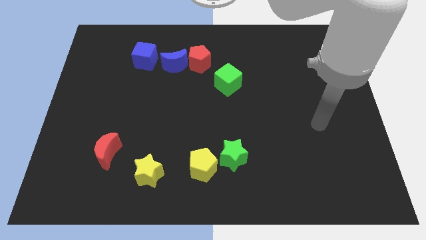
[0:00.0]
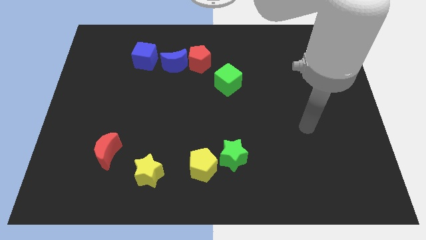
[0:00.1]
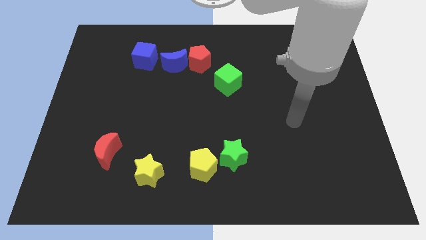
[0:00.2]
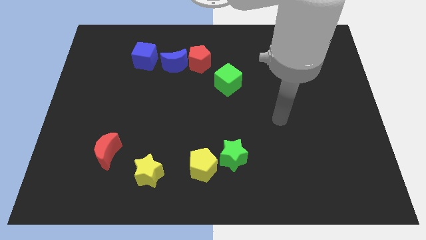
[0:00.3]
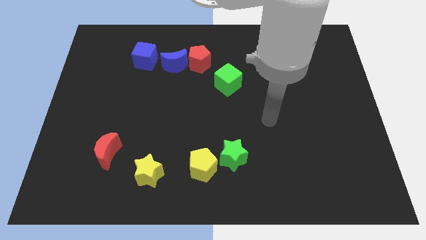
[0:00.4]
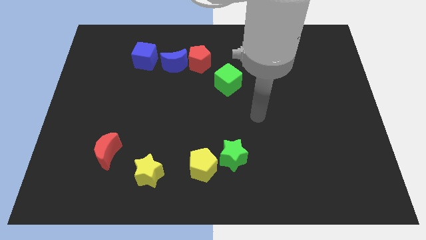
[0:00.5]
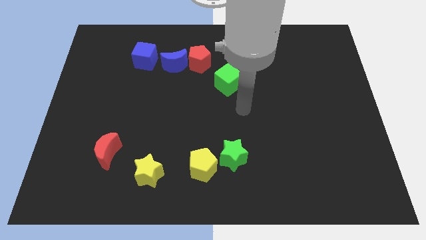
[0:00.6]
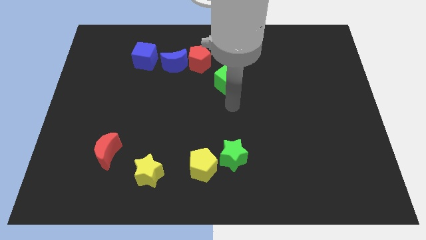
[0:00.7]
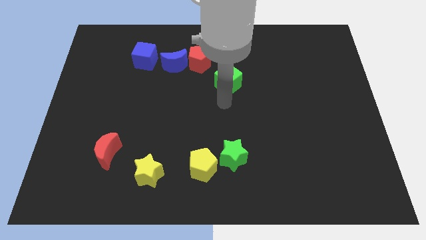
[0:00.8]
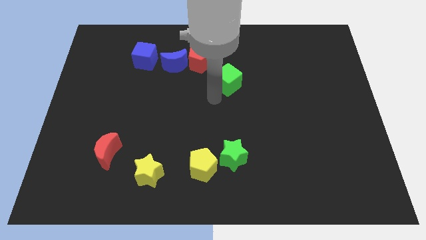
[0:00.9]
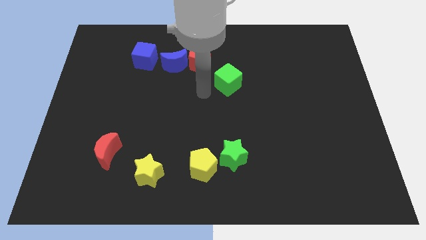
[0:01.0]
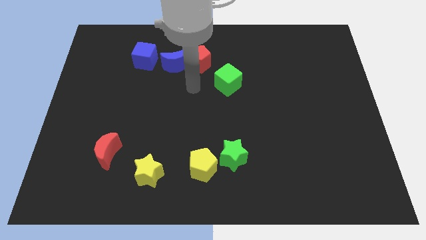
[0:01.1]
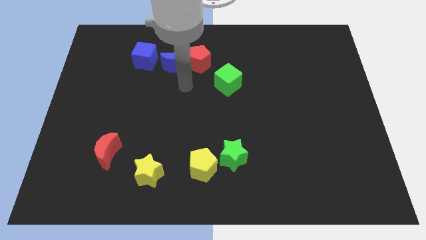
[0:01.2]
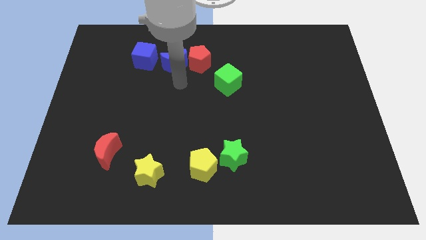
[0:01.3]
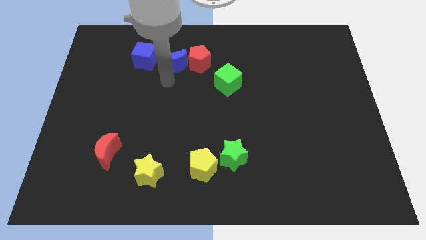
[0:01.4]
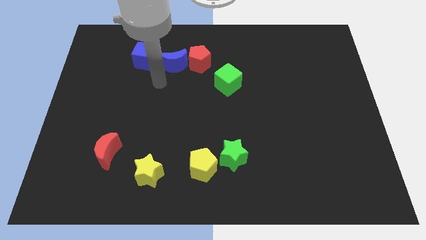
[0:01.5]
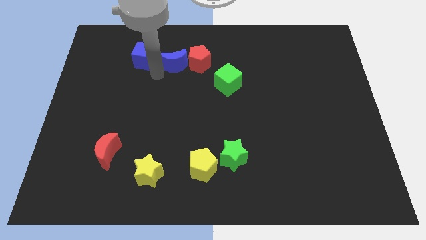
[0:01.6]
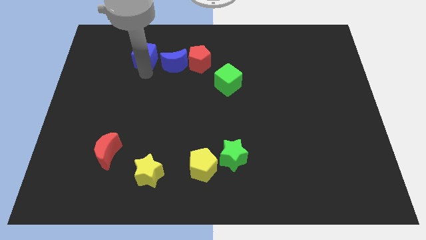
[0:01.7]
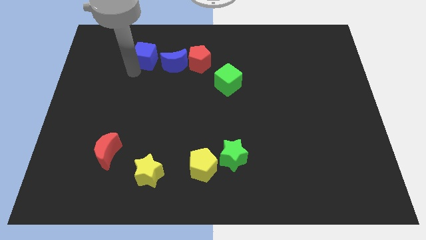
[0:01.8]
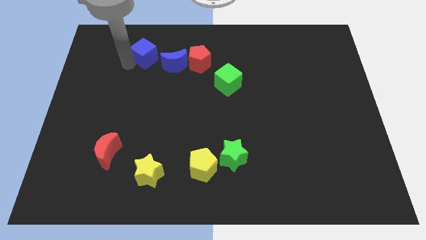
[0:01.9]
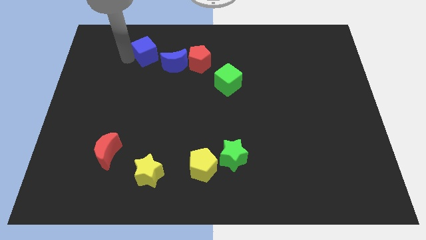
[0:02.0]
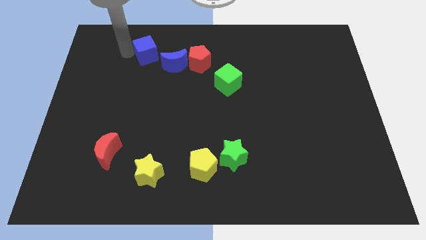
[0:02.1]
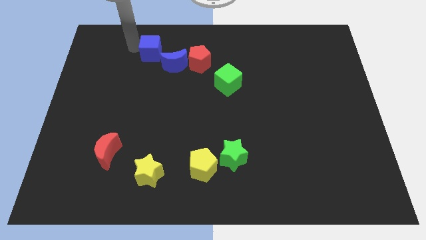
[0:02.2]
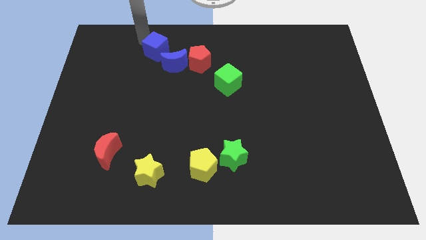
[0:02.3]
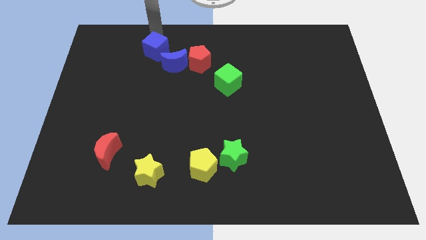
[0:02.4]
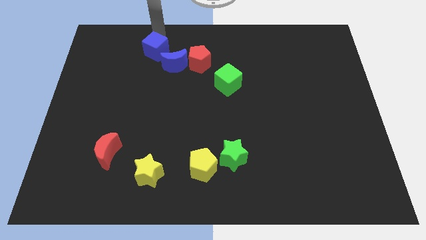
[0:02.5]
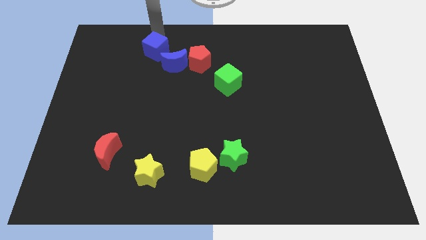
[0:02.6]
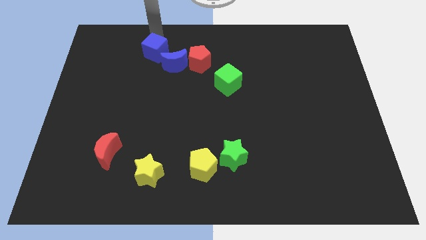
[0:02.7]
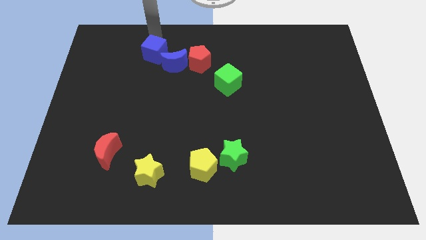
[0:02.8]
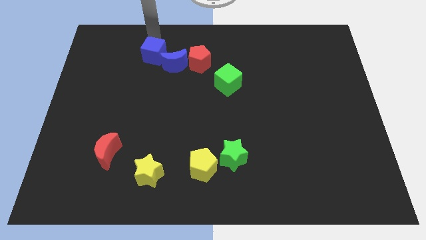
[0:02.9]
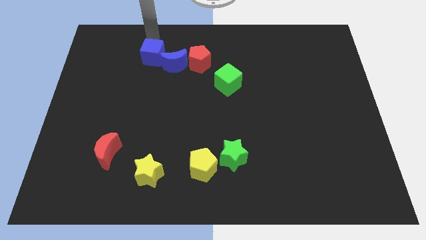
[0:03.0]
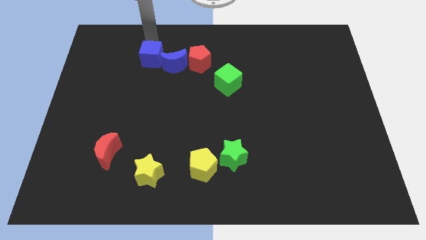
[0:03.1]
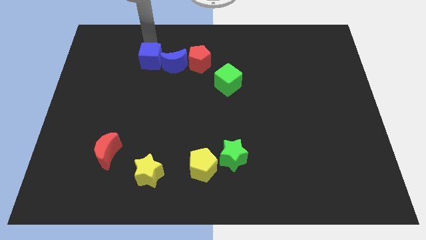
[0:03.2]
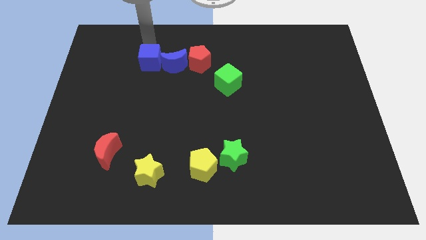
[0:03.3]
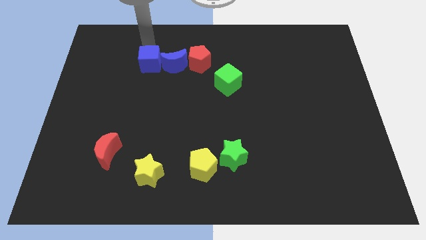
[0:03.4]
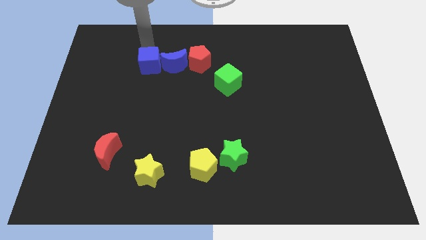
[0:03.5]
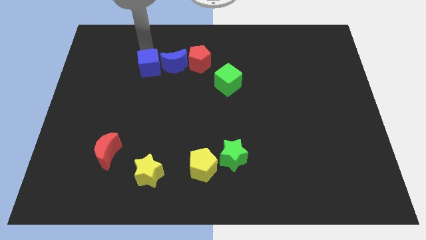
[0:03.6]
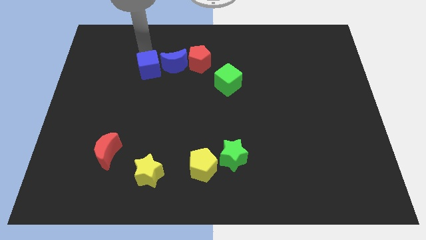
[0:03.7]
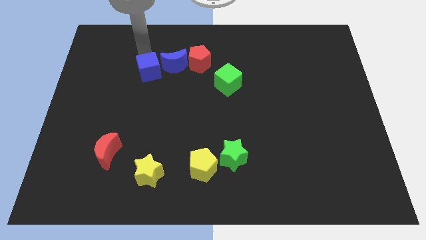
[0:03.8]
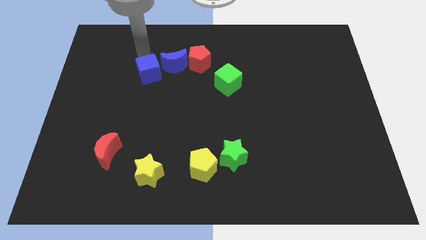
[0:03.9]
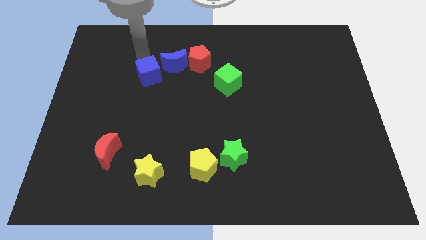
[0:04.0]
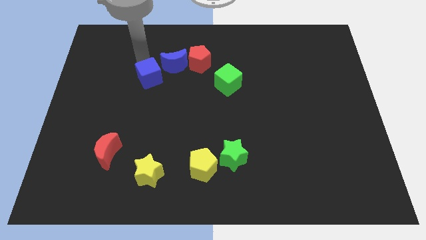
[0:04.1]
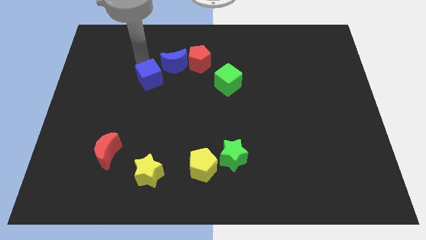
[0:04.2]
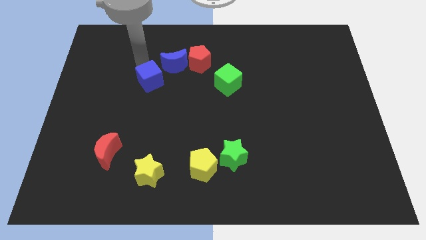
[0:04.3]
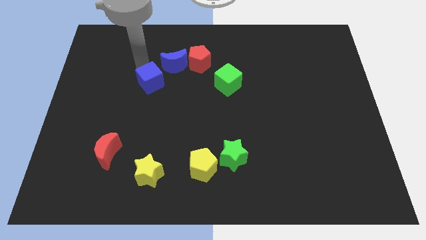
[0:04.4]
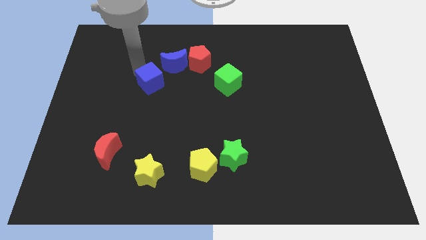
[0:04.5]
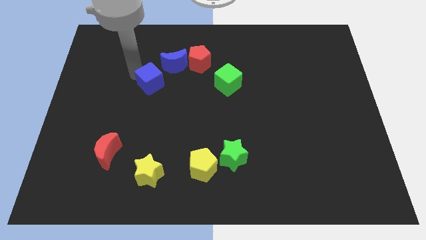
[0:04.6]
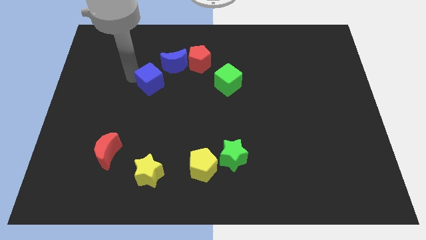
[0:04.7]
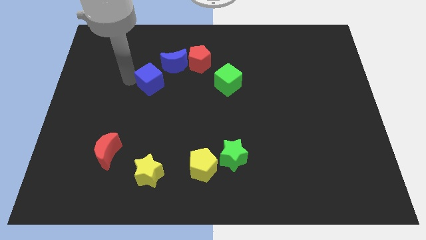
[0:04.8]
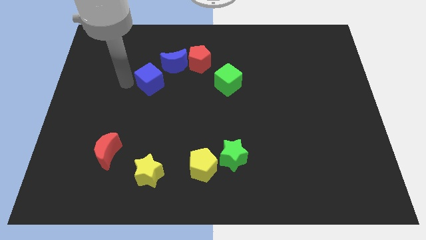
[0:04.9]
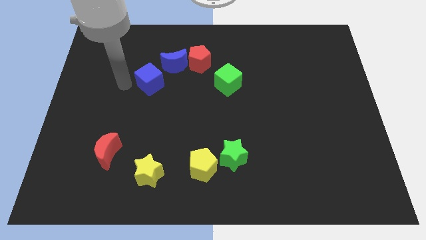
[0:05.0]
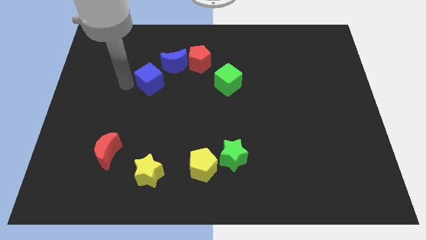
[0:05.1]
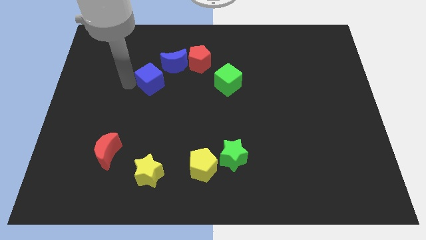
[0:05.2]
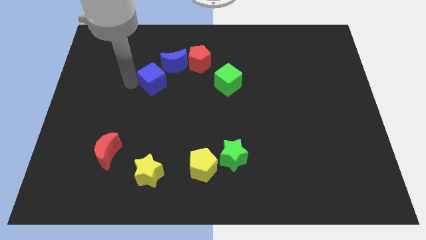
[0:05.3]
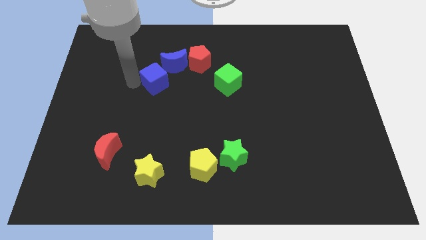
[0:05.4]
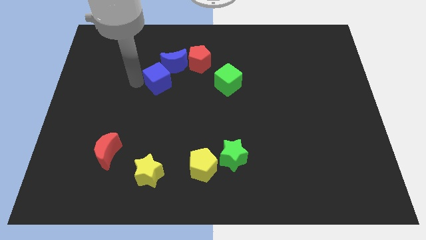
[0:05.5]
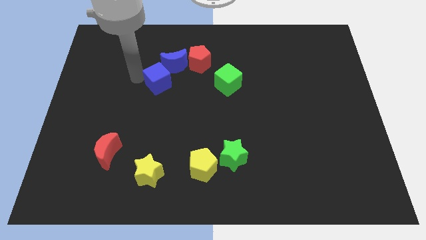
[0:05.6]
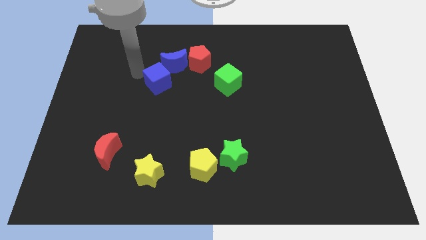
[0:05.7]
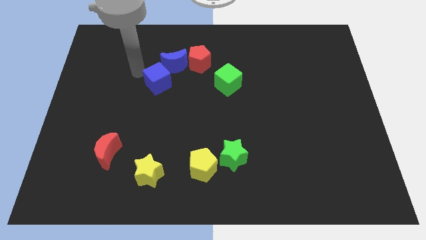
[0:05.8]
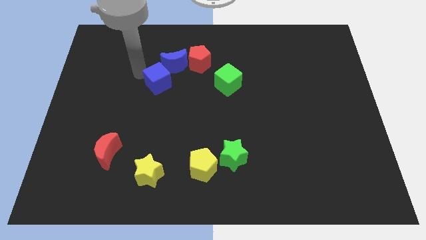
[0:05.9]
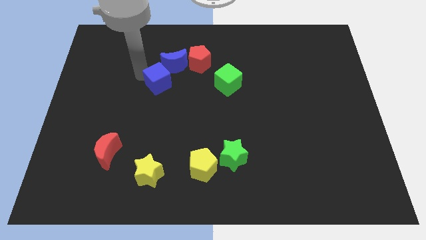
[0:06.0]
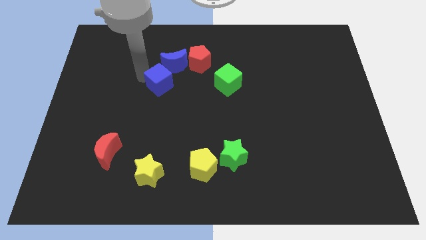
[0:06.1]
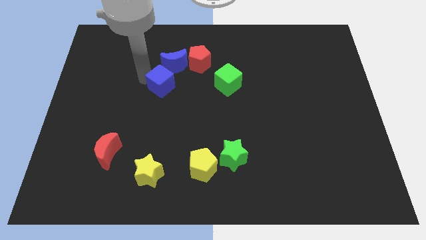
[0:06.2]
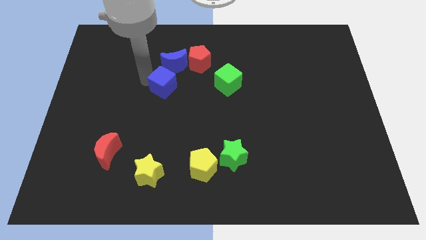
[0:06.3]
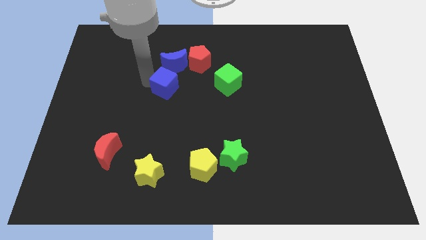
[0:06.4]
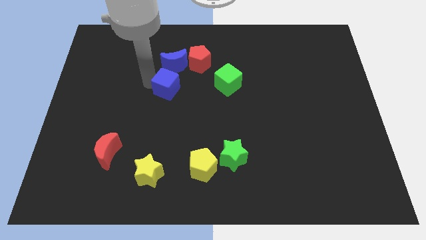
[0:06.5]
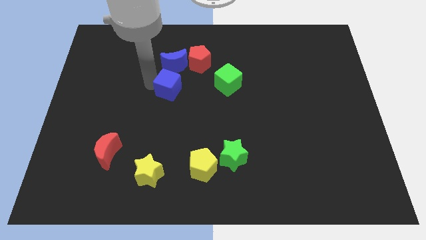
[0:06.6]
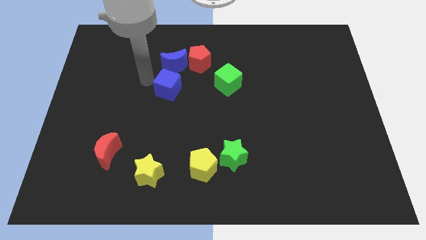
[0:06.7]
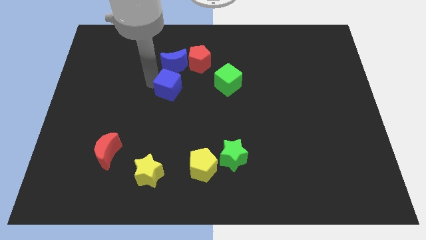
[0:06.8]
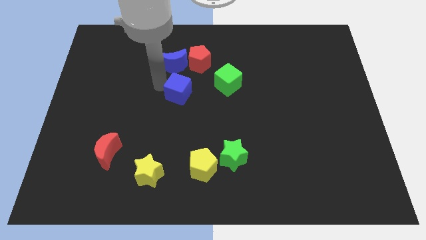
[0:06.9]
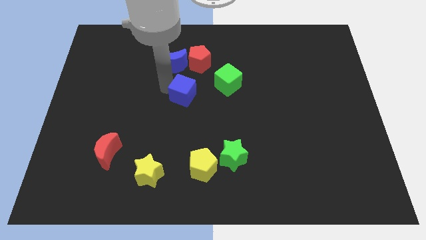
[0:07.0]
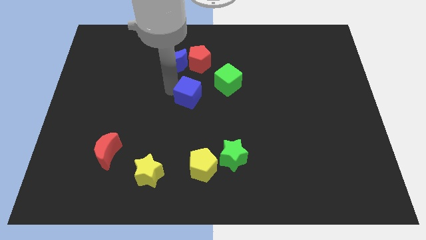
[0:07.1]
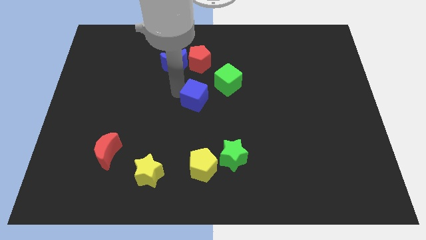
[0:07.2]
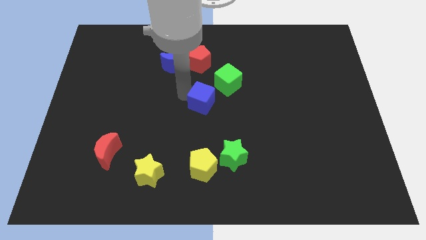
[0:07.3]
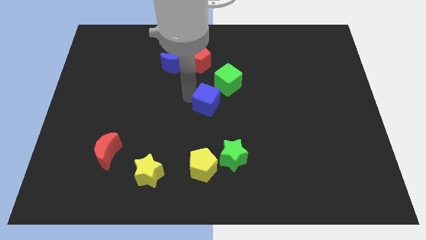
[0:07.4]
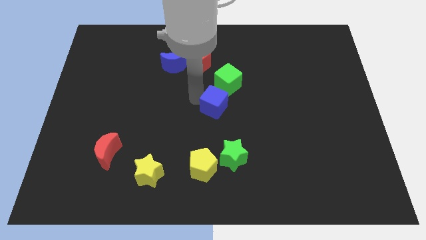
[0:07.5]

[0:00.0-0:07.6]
slide the blue cube to the bottom of the green cube
